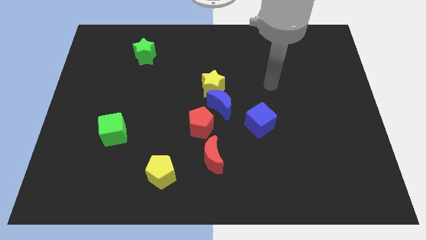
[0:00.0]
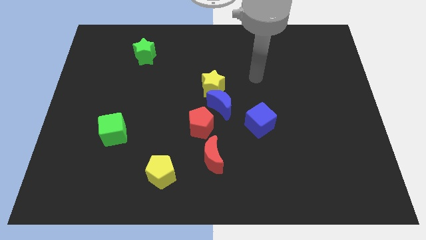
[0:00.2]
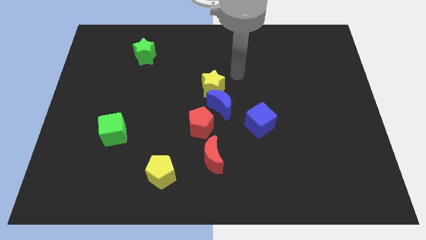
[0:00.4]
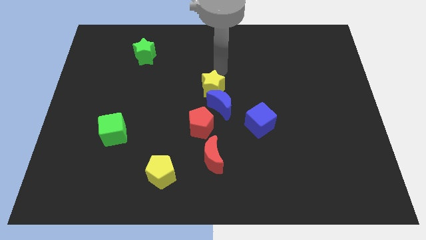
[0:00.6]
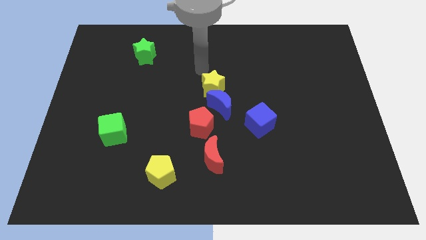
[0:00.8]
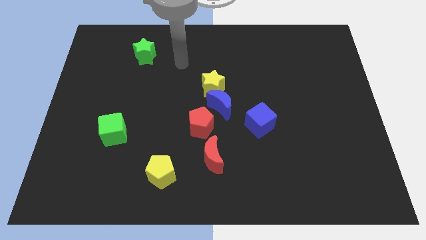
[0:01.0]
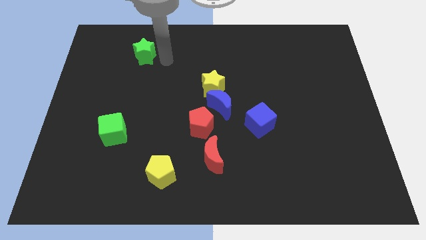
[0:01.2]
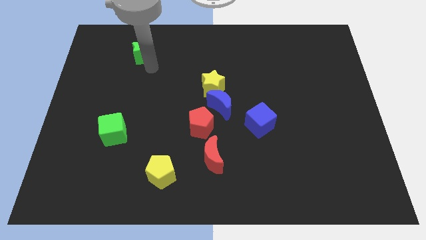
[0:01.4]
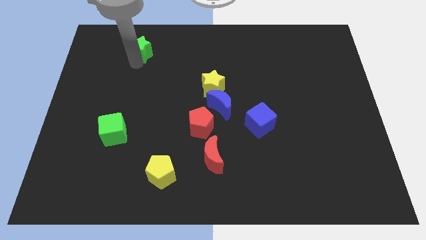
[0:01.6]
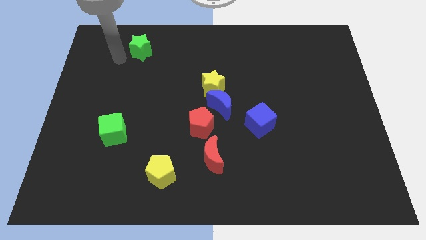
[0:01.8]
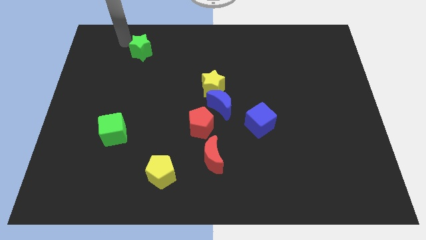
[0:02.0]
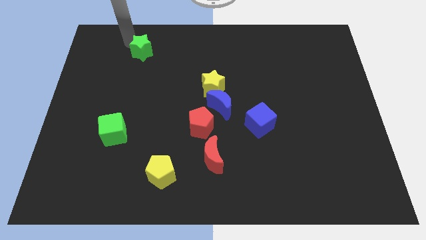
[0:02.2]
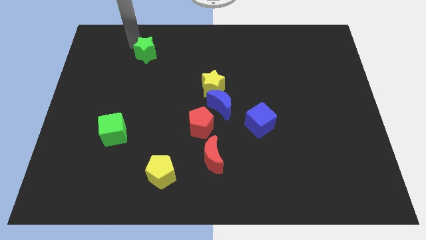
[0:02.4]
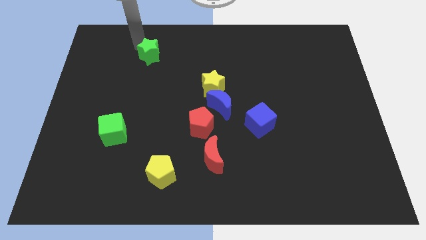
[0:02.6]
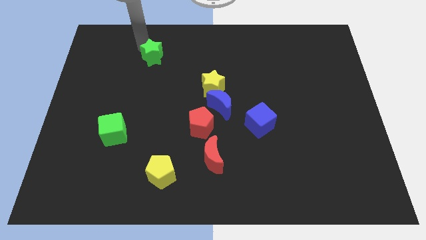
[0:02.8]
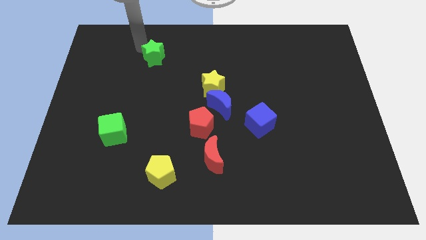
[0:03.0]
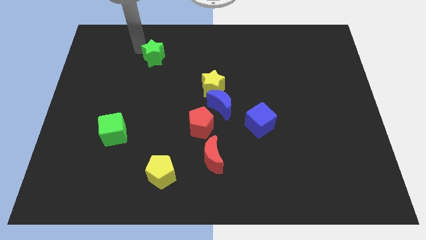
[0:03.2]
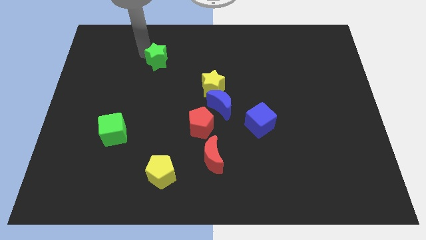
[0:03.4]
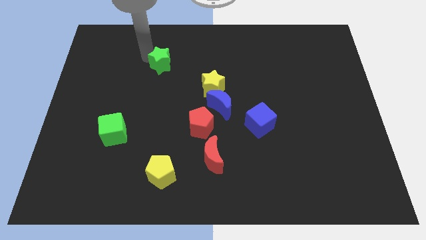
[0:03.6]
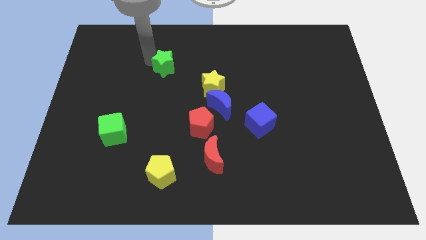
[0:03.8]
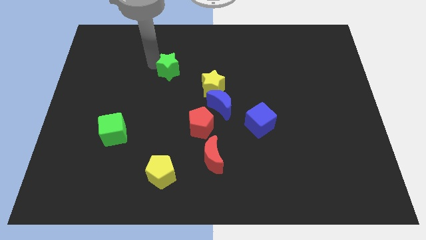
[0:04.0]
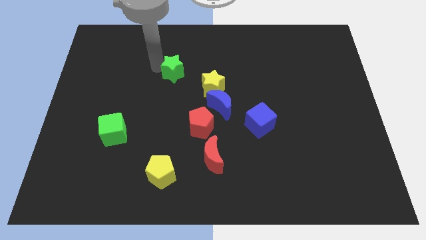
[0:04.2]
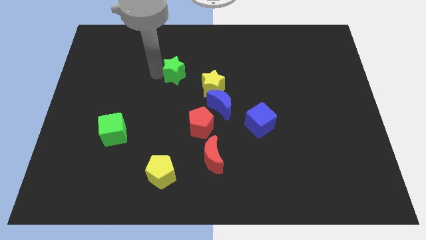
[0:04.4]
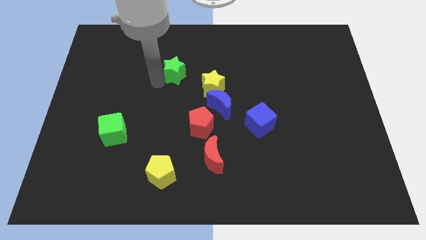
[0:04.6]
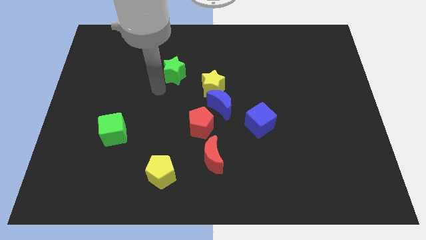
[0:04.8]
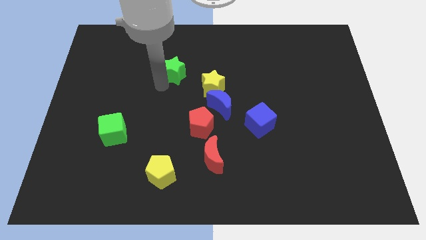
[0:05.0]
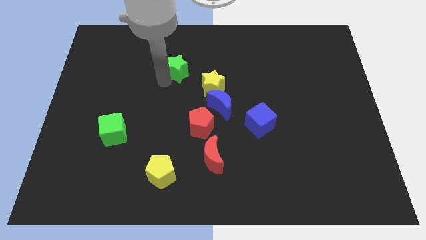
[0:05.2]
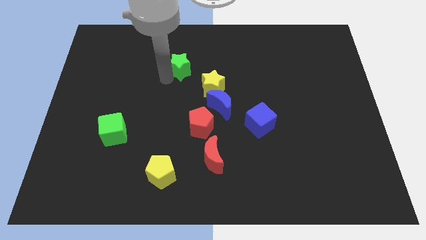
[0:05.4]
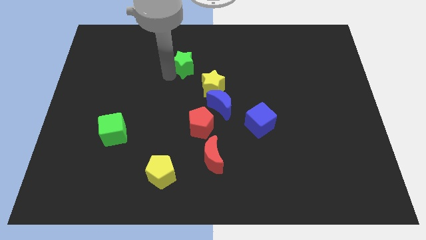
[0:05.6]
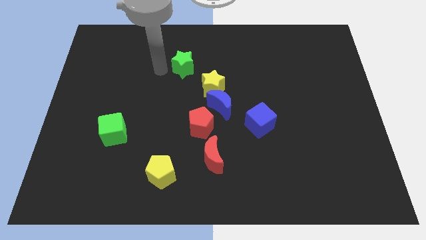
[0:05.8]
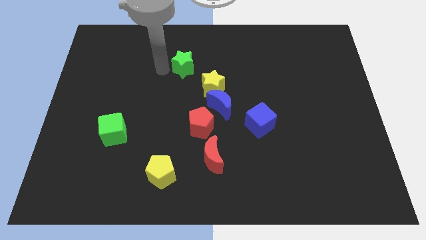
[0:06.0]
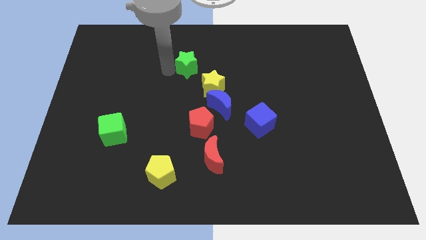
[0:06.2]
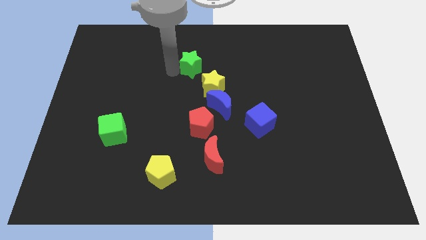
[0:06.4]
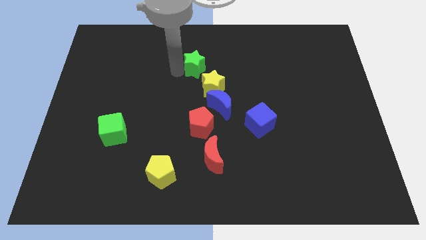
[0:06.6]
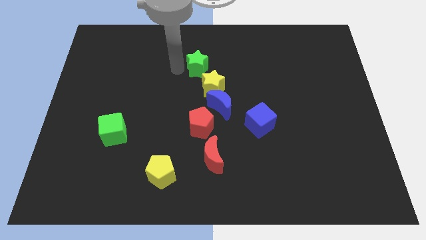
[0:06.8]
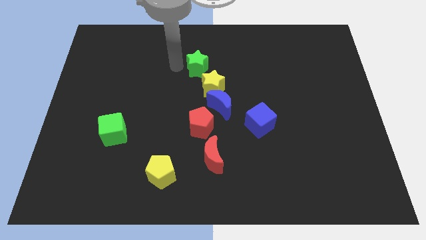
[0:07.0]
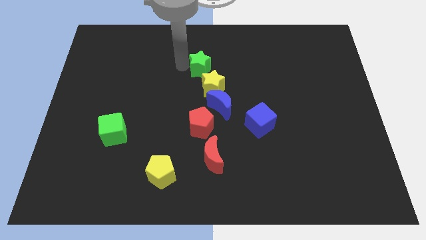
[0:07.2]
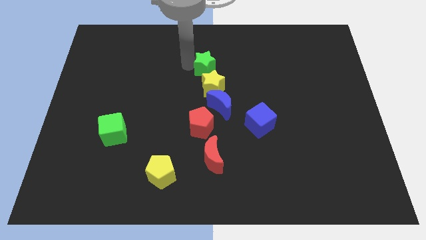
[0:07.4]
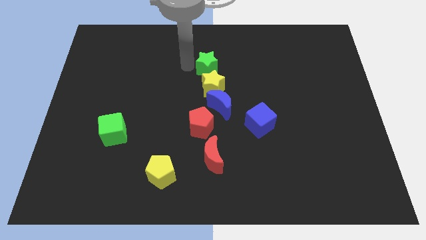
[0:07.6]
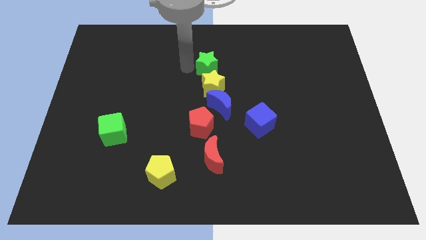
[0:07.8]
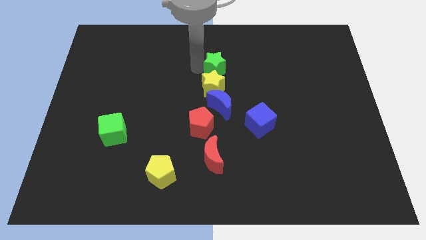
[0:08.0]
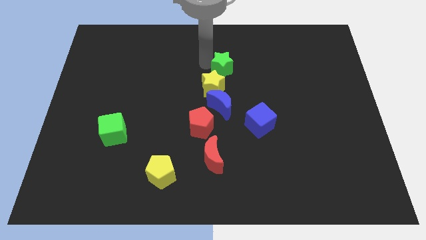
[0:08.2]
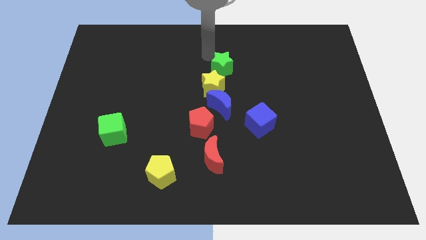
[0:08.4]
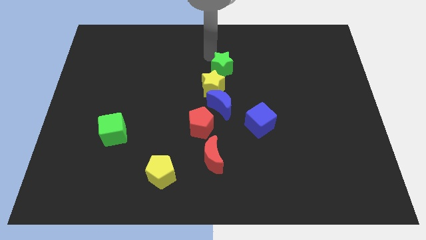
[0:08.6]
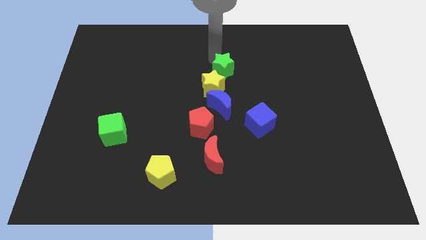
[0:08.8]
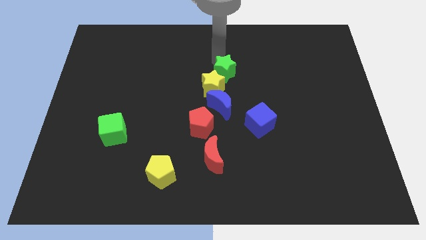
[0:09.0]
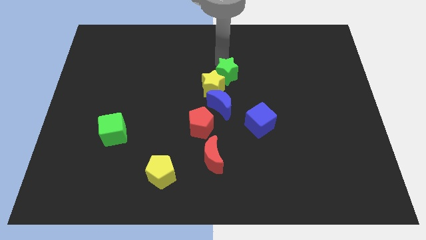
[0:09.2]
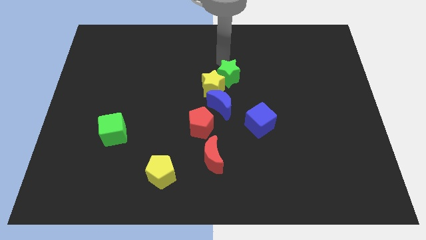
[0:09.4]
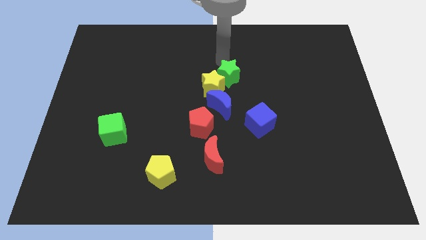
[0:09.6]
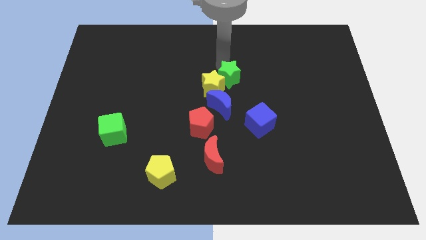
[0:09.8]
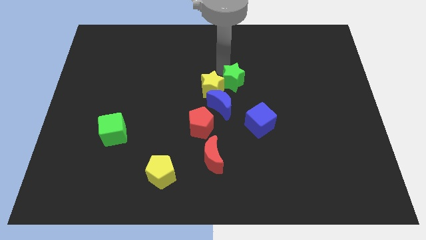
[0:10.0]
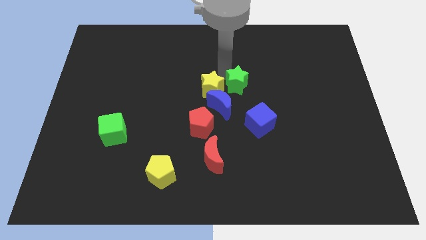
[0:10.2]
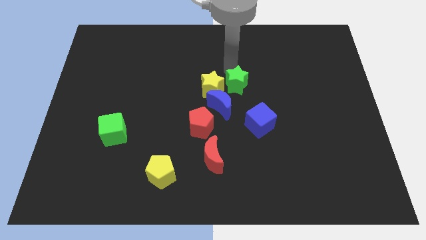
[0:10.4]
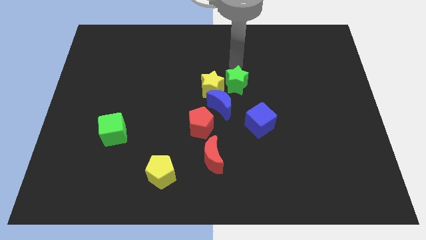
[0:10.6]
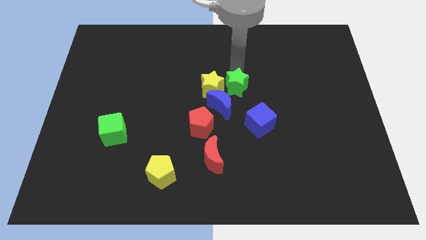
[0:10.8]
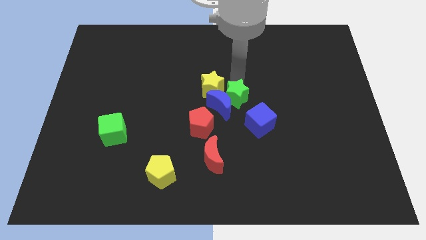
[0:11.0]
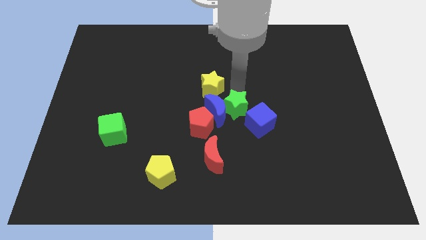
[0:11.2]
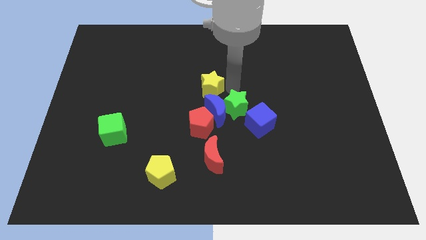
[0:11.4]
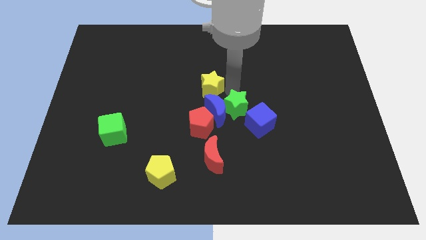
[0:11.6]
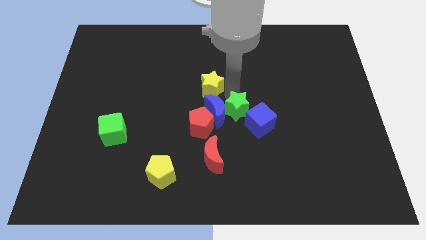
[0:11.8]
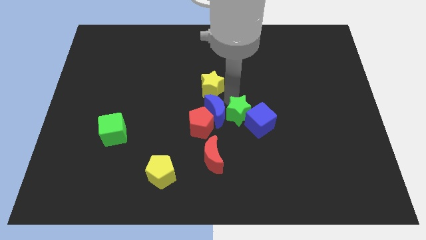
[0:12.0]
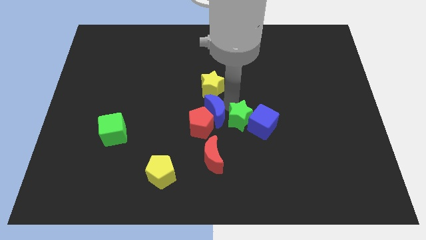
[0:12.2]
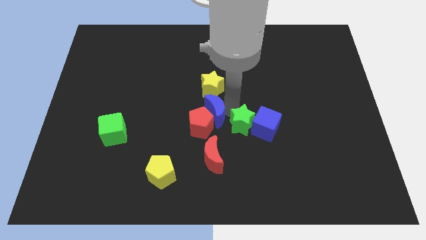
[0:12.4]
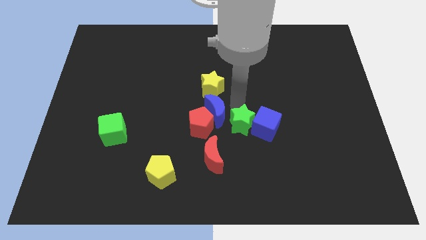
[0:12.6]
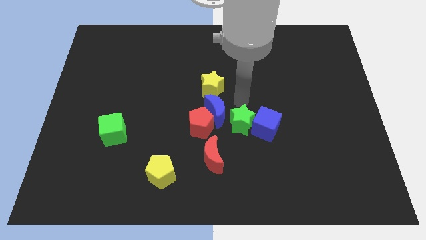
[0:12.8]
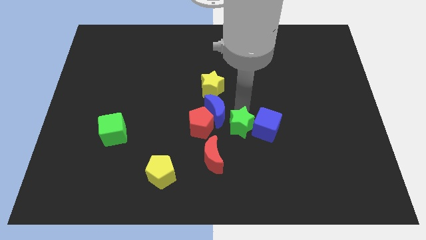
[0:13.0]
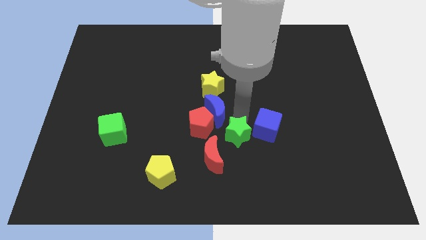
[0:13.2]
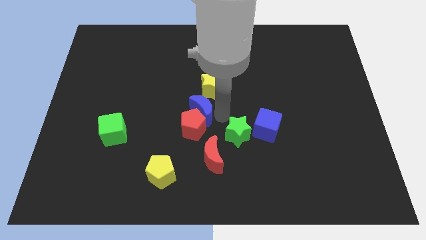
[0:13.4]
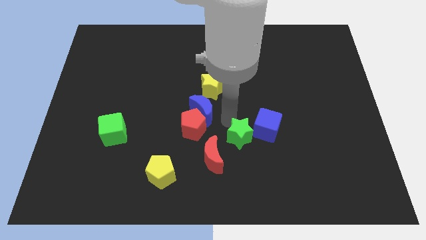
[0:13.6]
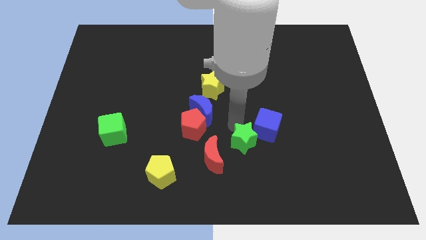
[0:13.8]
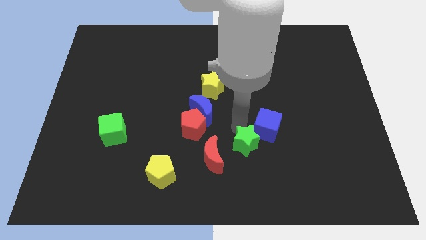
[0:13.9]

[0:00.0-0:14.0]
push the green star to the bottom of the blue cube
